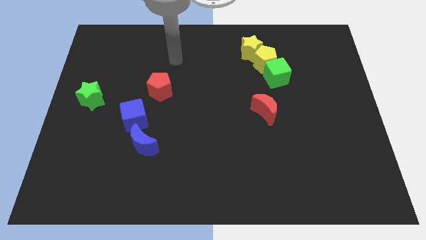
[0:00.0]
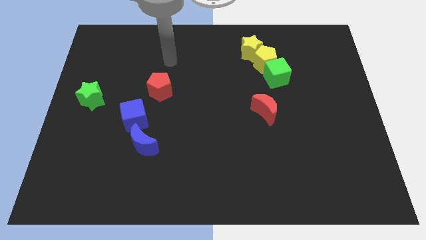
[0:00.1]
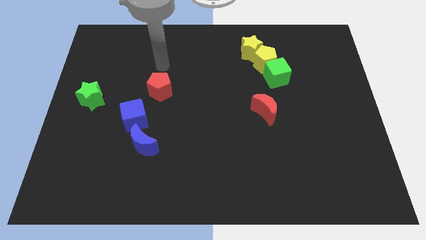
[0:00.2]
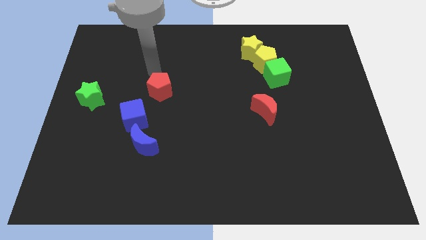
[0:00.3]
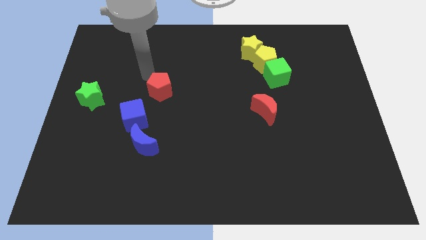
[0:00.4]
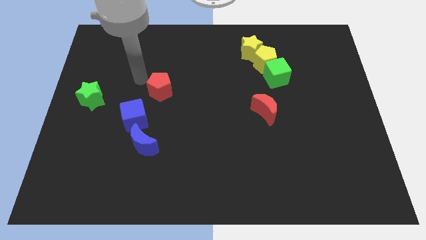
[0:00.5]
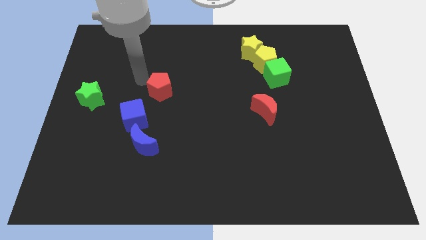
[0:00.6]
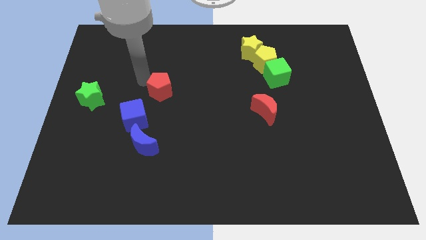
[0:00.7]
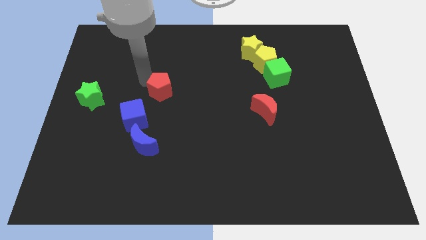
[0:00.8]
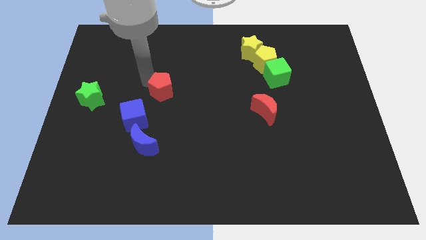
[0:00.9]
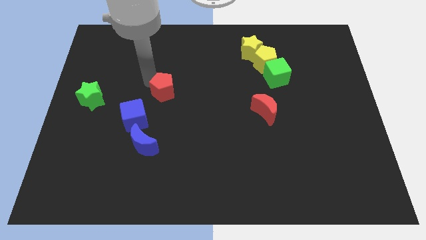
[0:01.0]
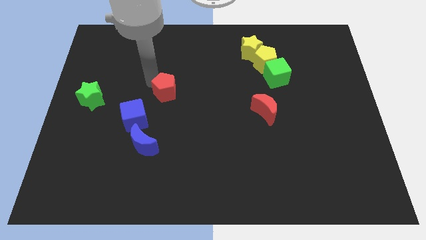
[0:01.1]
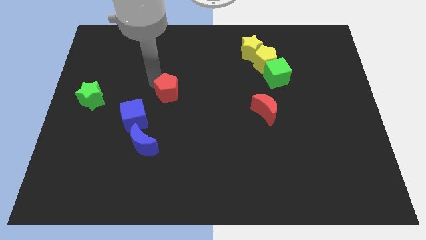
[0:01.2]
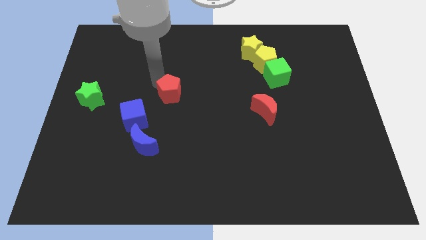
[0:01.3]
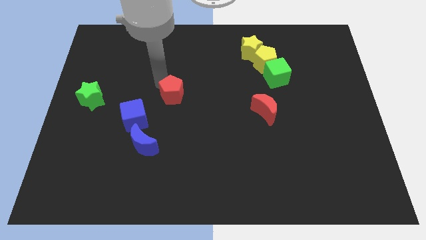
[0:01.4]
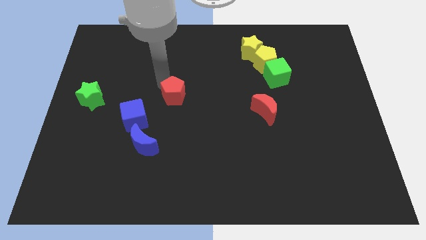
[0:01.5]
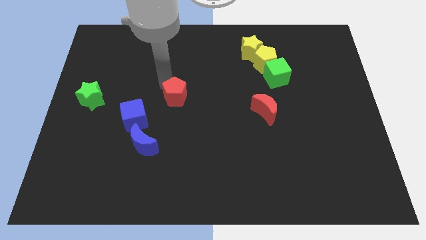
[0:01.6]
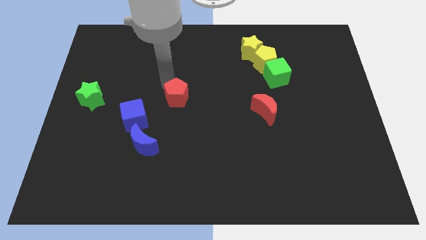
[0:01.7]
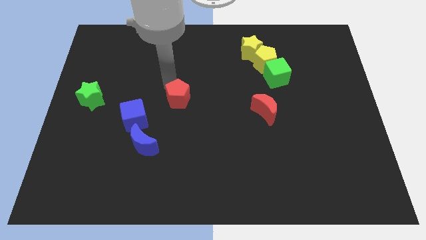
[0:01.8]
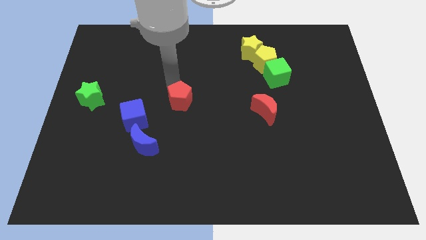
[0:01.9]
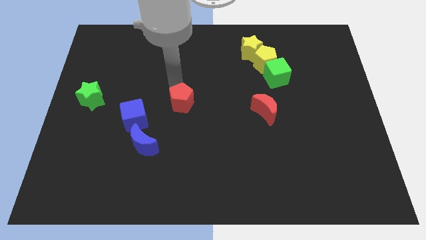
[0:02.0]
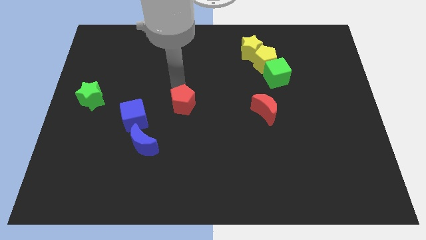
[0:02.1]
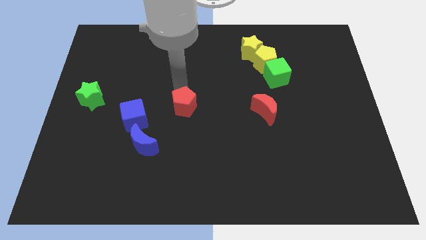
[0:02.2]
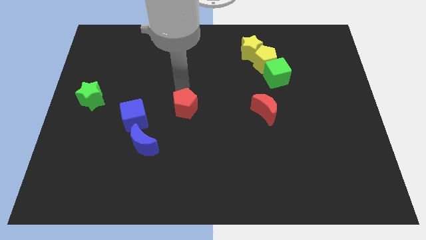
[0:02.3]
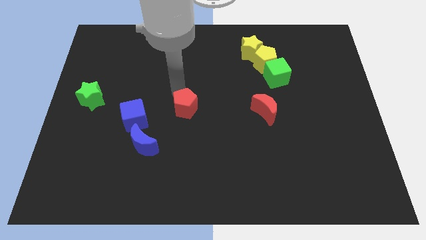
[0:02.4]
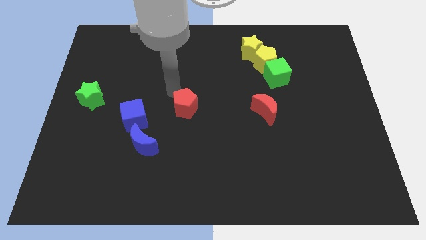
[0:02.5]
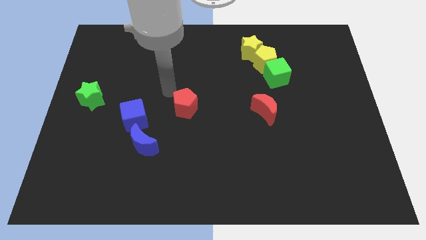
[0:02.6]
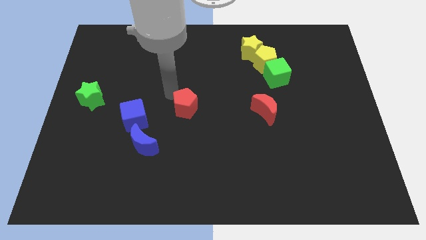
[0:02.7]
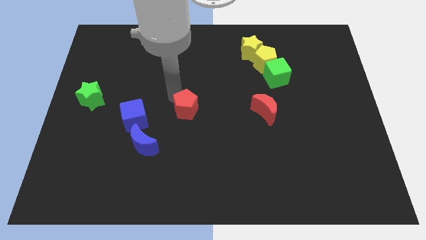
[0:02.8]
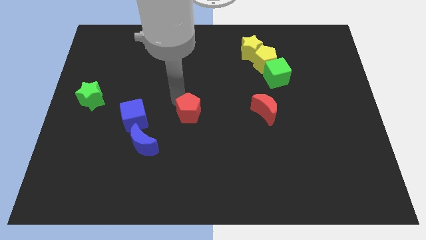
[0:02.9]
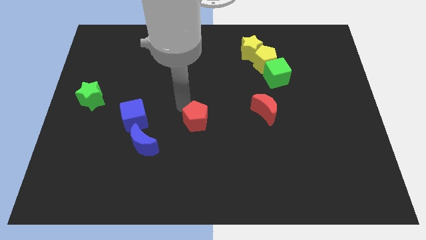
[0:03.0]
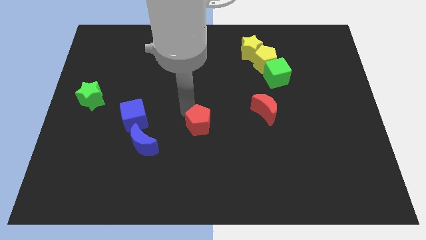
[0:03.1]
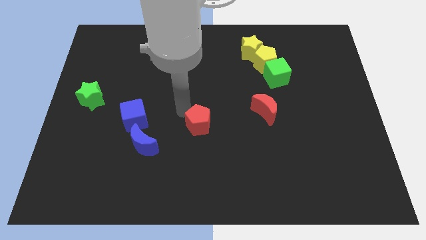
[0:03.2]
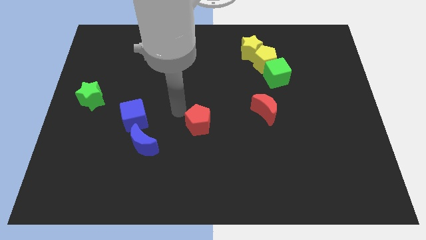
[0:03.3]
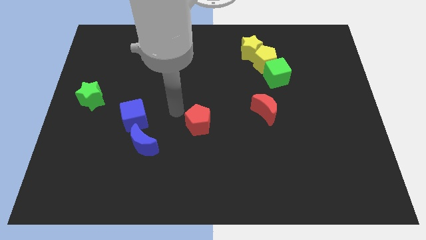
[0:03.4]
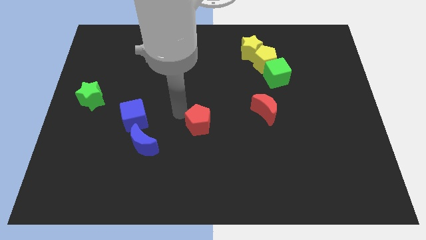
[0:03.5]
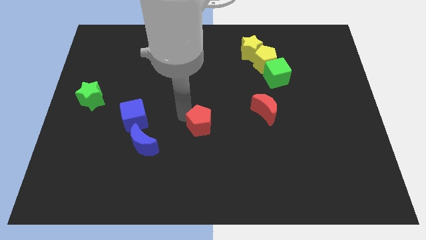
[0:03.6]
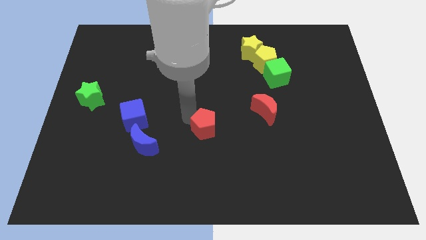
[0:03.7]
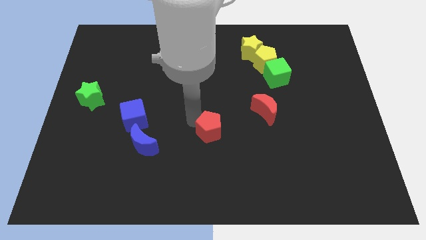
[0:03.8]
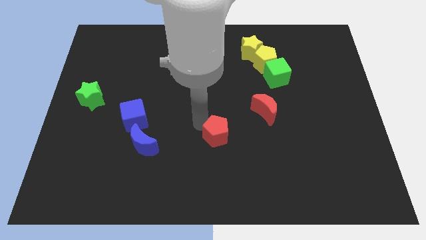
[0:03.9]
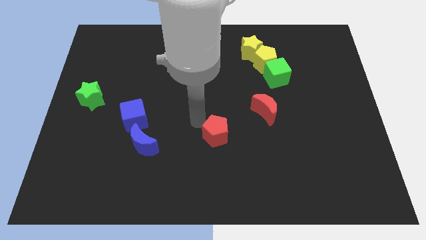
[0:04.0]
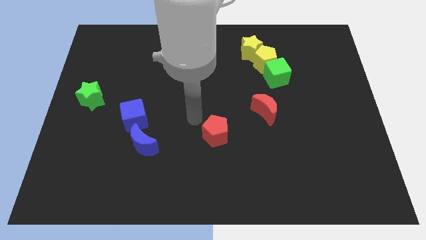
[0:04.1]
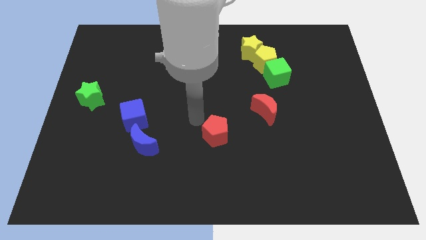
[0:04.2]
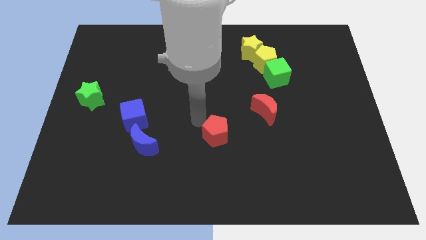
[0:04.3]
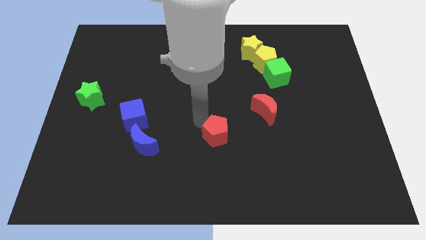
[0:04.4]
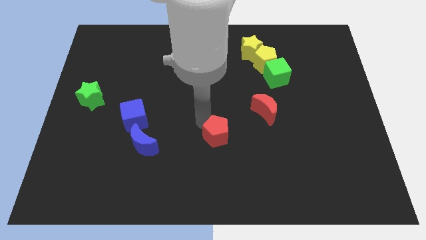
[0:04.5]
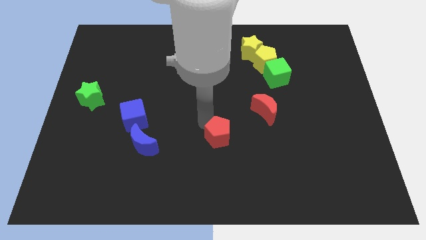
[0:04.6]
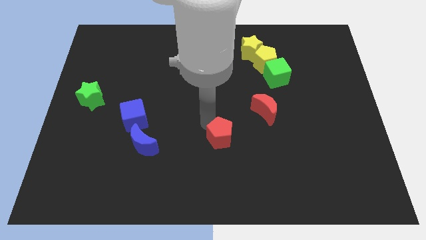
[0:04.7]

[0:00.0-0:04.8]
move the red pentagon down and then to the right

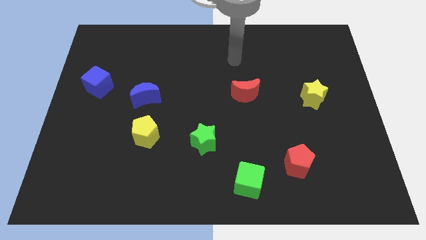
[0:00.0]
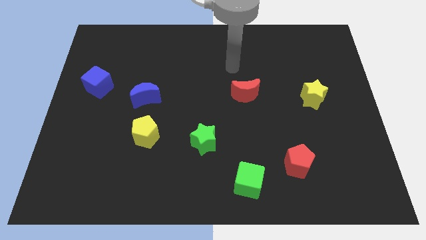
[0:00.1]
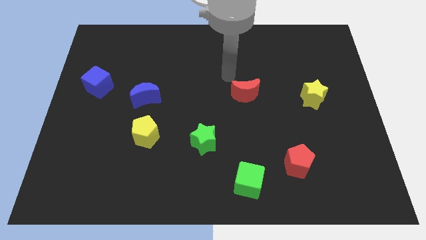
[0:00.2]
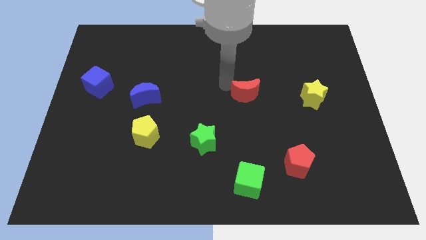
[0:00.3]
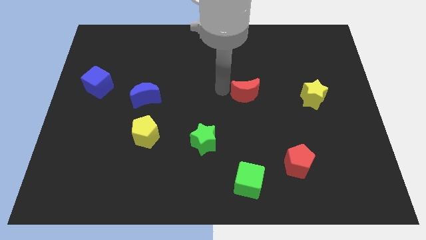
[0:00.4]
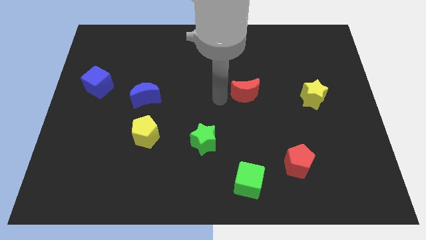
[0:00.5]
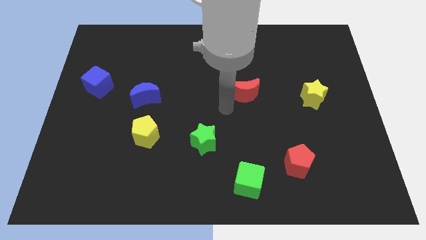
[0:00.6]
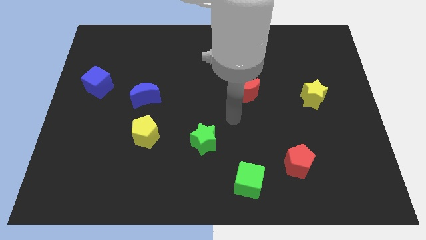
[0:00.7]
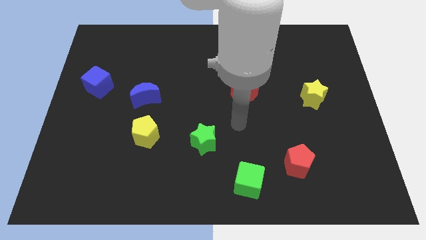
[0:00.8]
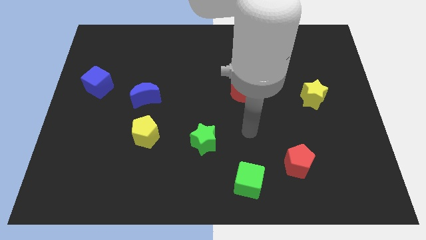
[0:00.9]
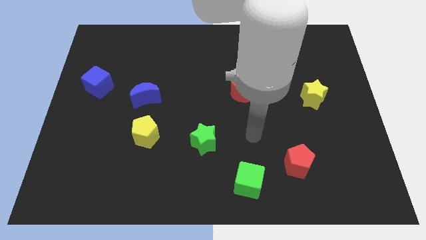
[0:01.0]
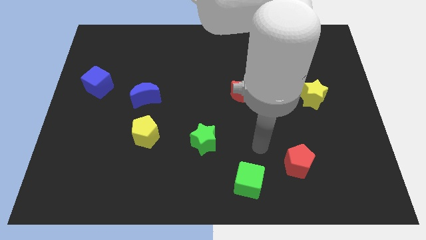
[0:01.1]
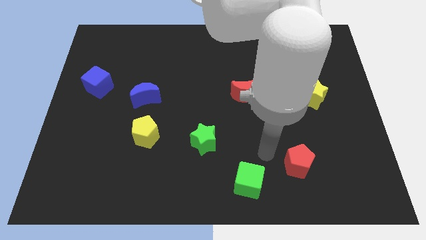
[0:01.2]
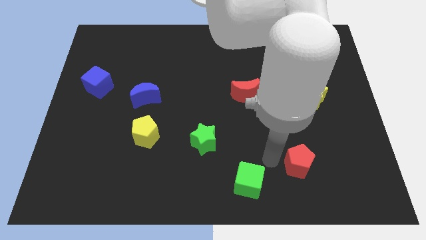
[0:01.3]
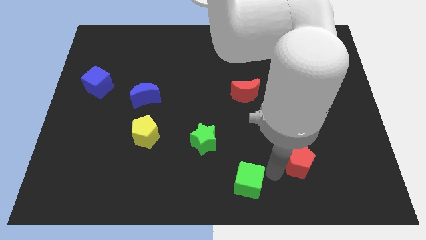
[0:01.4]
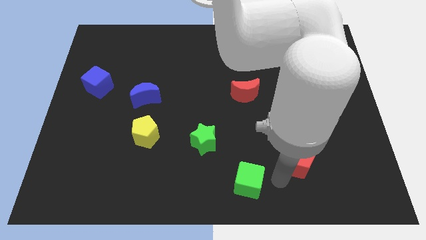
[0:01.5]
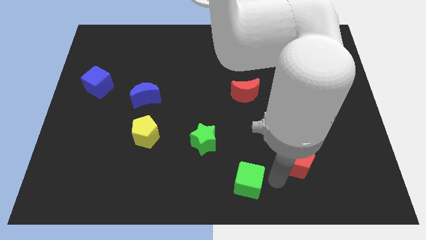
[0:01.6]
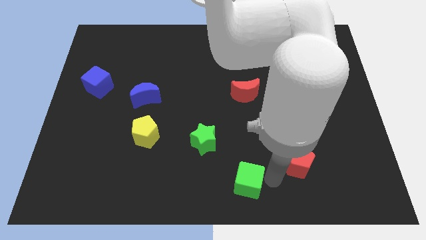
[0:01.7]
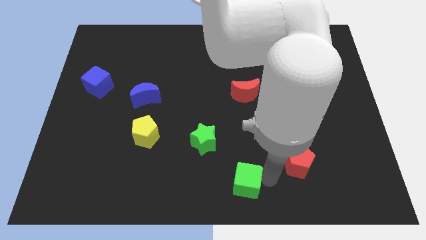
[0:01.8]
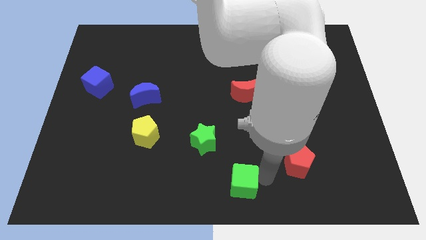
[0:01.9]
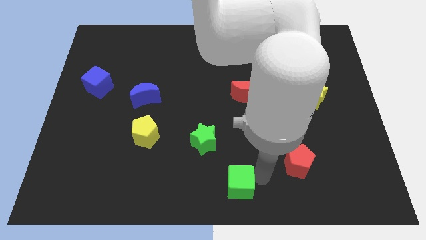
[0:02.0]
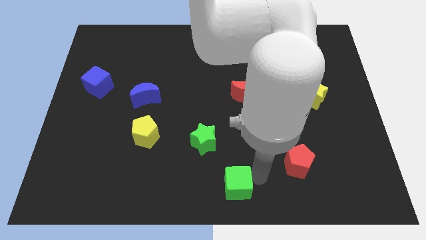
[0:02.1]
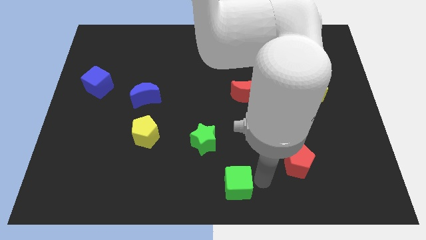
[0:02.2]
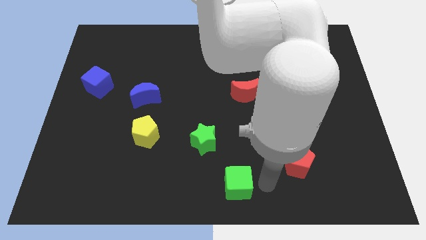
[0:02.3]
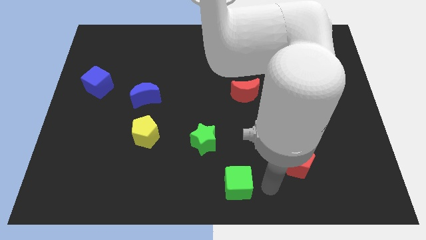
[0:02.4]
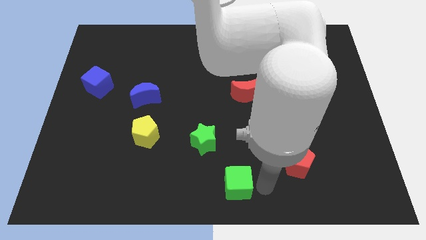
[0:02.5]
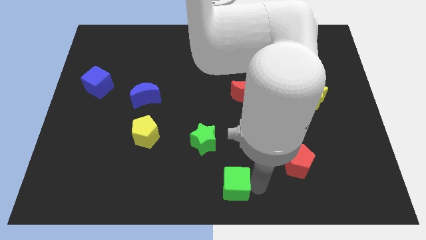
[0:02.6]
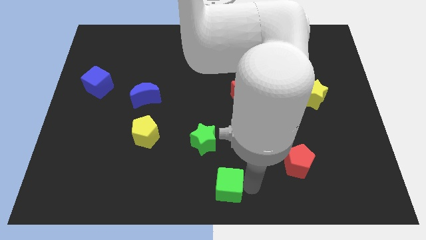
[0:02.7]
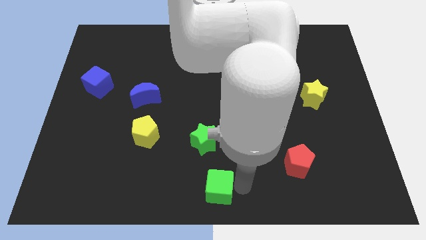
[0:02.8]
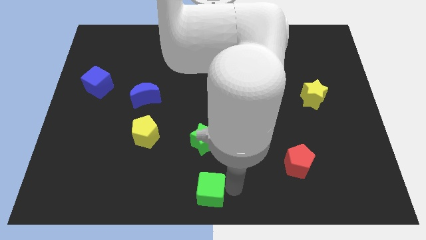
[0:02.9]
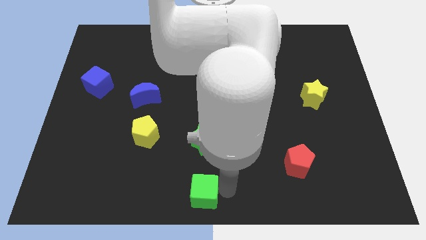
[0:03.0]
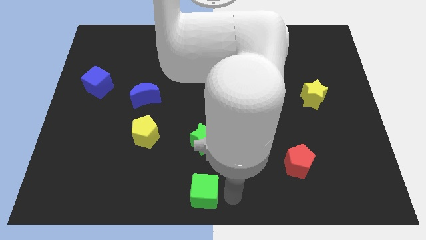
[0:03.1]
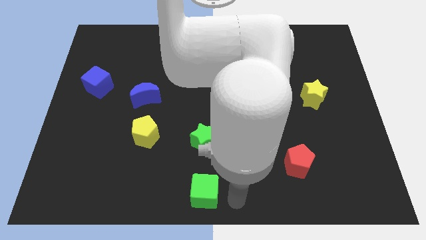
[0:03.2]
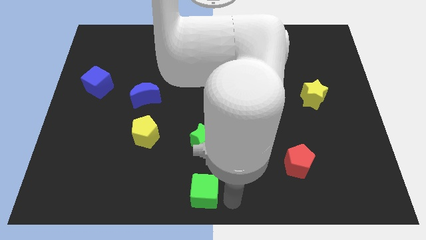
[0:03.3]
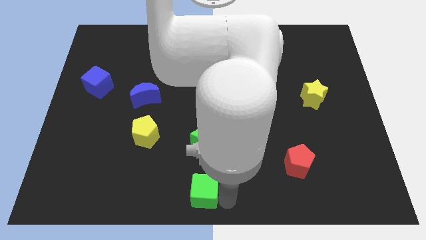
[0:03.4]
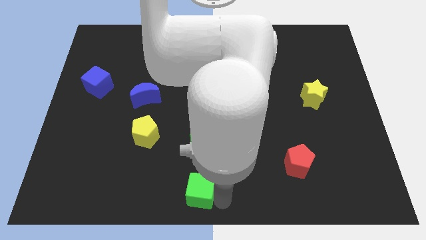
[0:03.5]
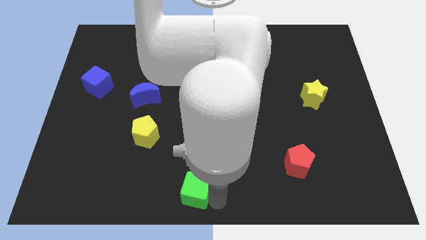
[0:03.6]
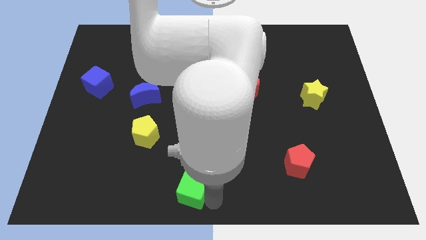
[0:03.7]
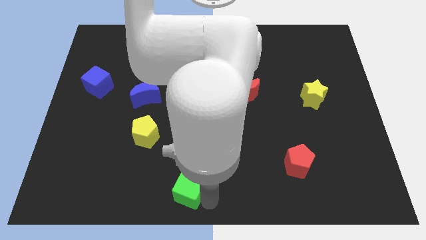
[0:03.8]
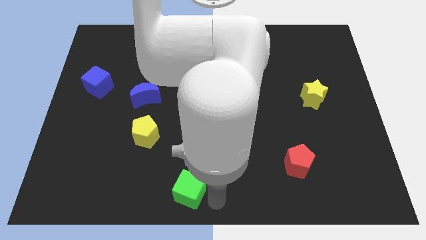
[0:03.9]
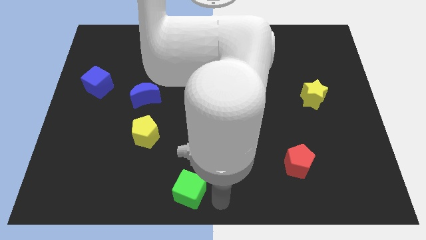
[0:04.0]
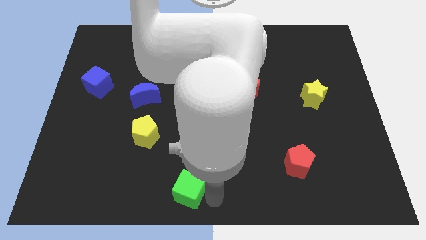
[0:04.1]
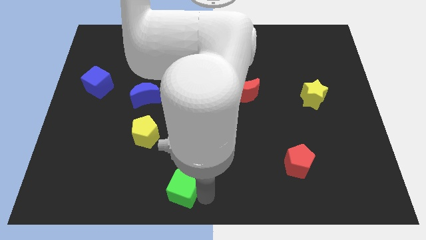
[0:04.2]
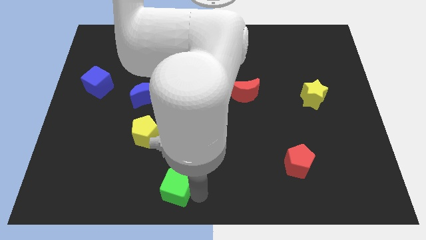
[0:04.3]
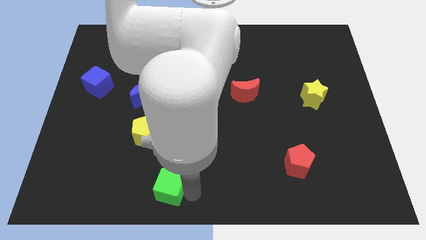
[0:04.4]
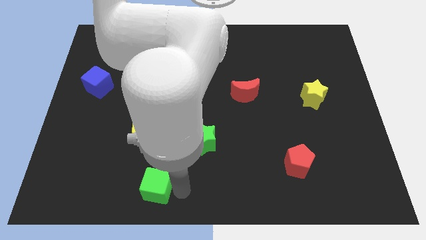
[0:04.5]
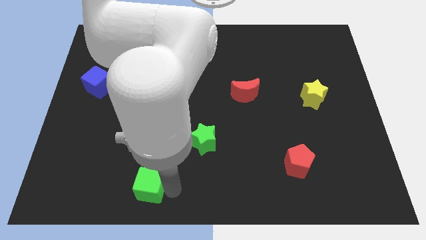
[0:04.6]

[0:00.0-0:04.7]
push the green cube to the left
